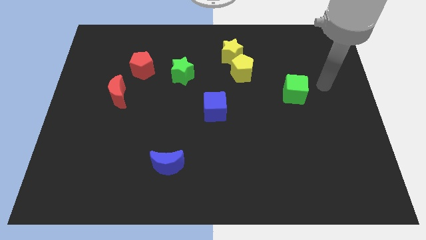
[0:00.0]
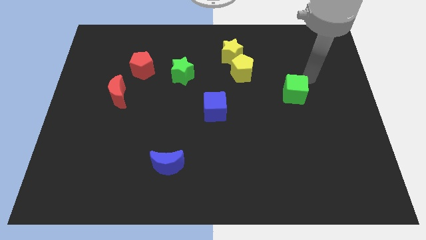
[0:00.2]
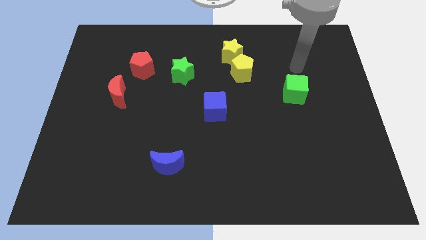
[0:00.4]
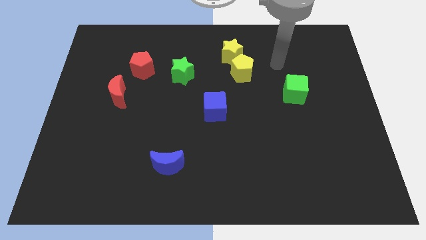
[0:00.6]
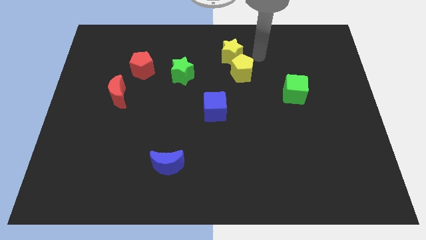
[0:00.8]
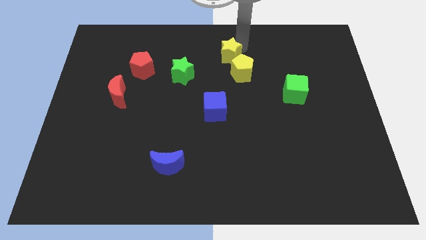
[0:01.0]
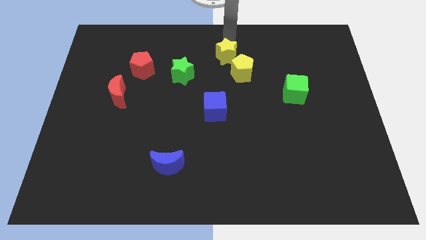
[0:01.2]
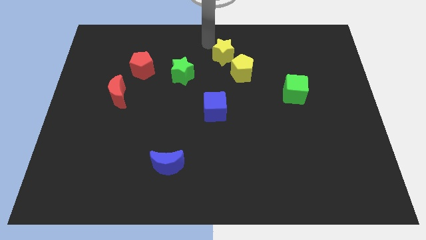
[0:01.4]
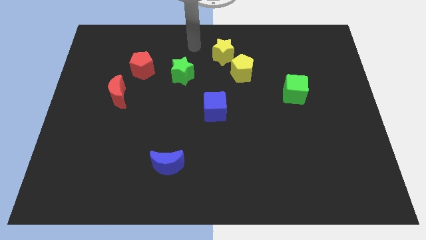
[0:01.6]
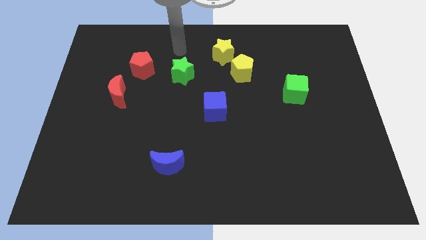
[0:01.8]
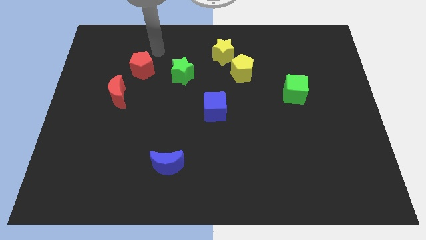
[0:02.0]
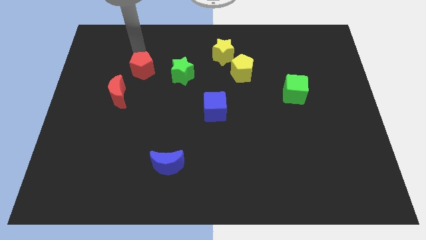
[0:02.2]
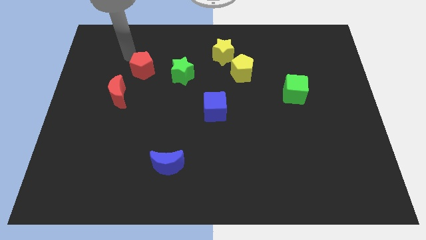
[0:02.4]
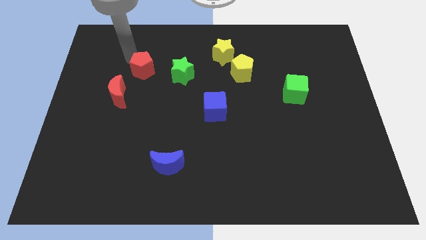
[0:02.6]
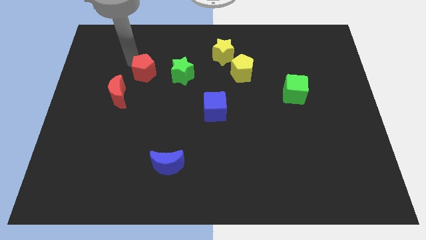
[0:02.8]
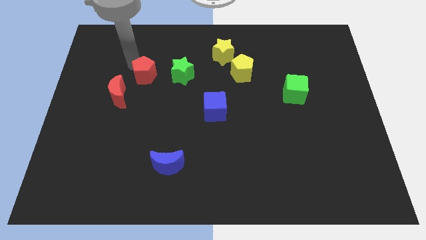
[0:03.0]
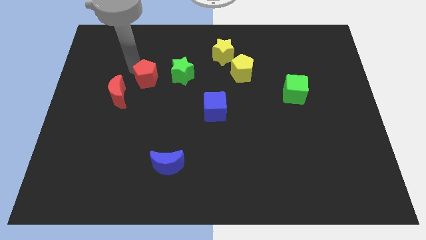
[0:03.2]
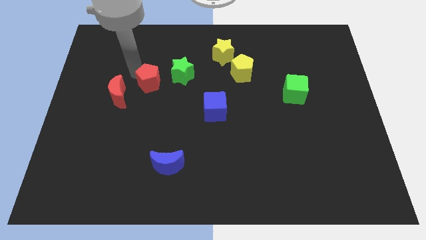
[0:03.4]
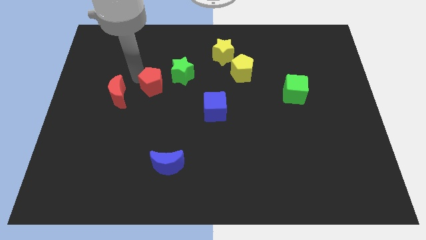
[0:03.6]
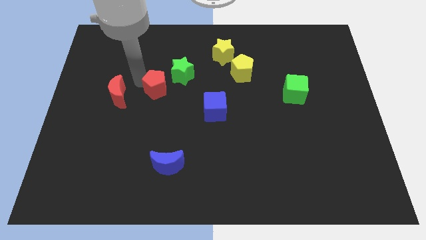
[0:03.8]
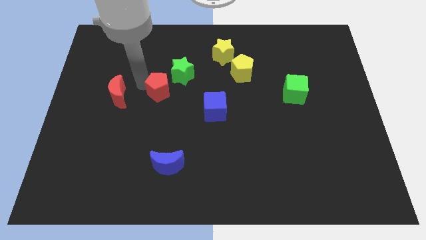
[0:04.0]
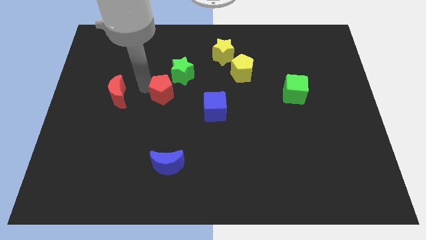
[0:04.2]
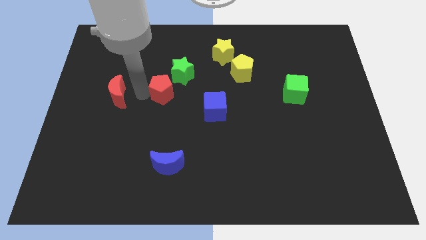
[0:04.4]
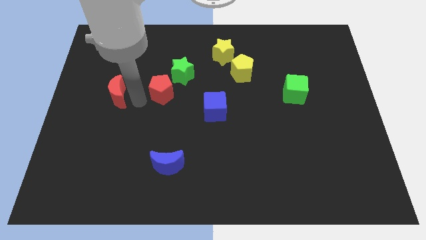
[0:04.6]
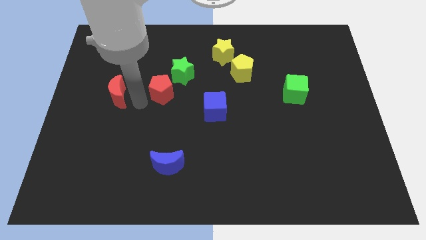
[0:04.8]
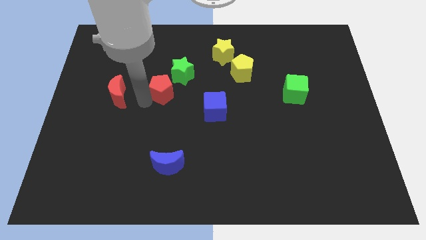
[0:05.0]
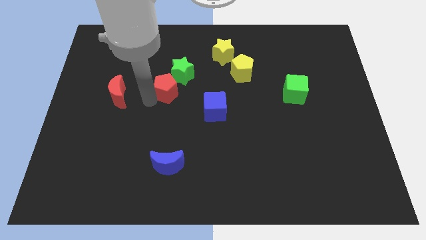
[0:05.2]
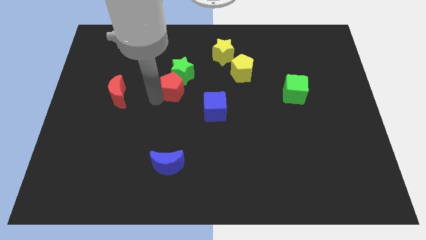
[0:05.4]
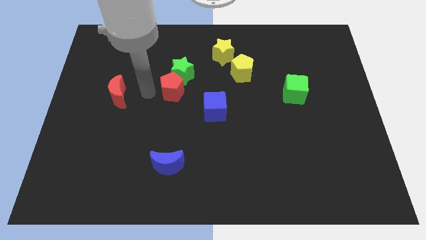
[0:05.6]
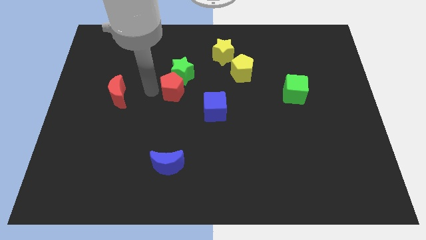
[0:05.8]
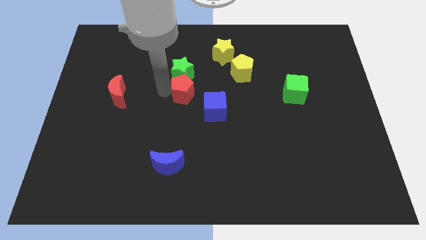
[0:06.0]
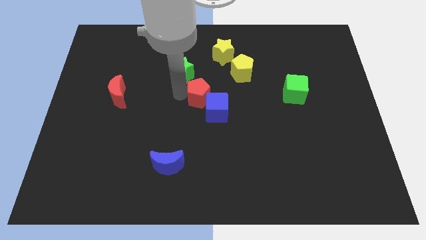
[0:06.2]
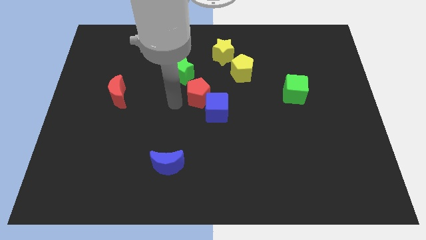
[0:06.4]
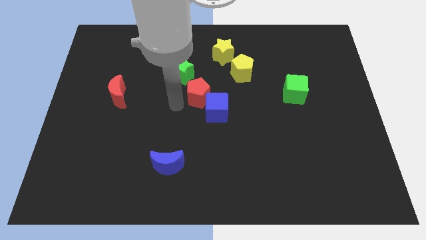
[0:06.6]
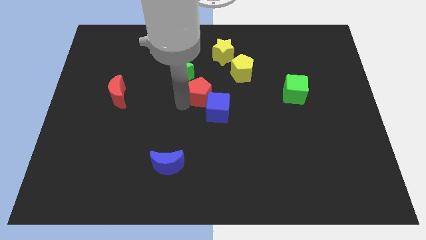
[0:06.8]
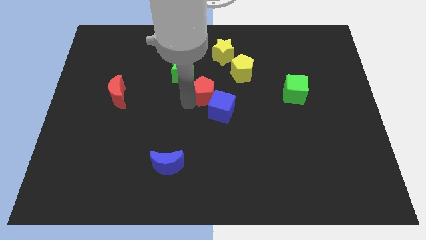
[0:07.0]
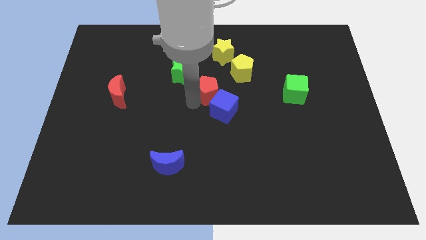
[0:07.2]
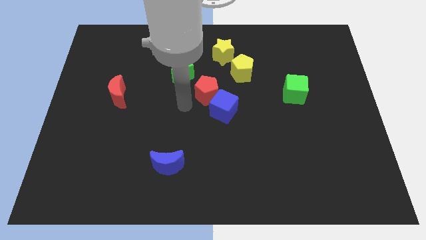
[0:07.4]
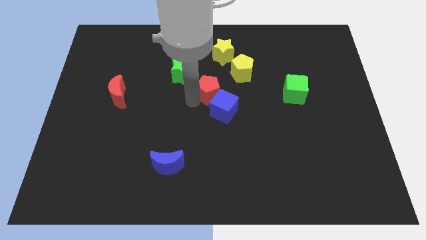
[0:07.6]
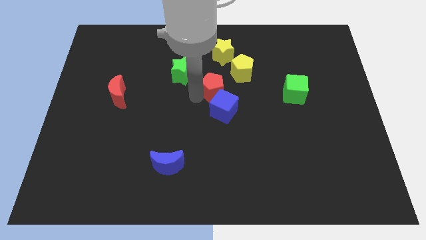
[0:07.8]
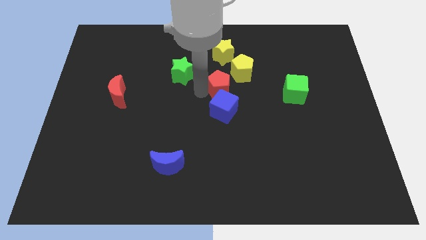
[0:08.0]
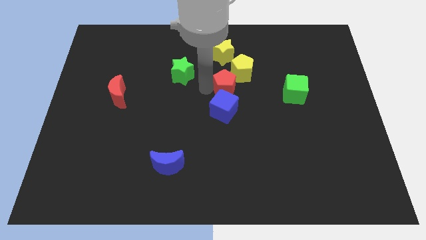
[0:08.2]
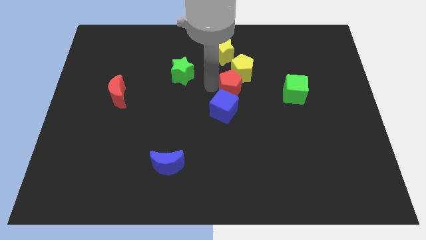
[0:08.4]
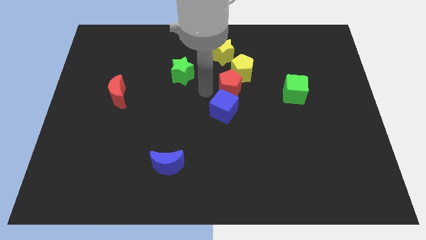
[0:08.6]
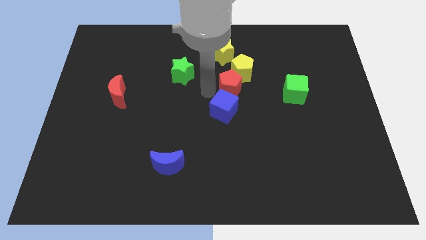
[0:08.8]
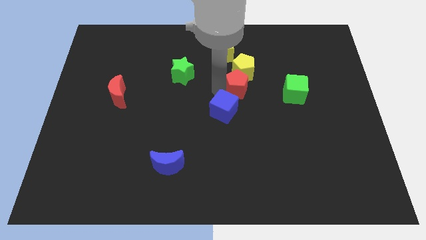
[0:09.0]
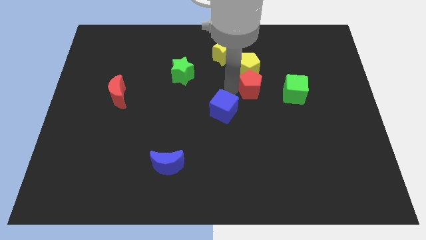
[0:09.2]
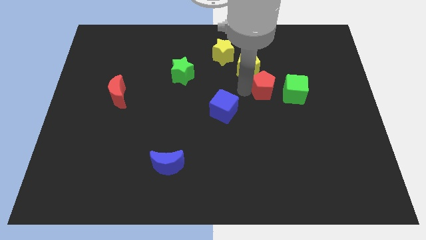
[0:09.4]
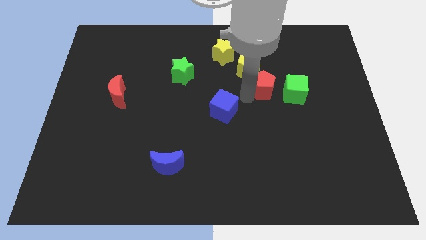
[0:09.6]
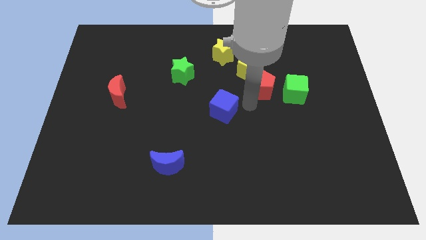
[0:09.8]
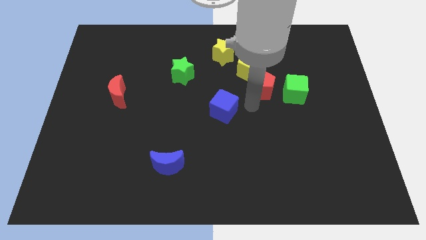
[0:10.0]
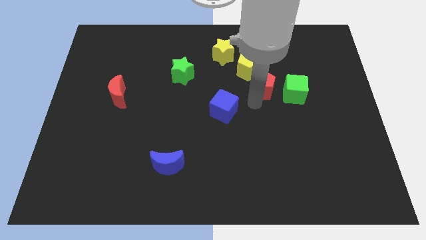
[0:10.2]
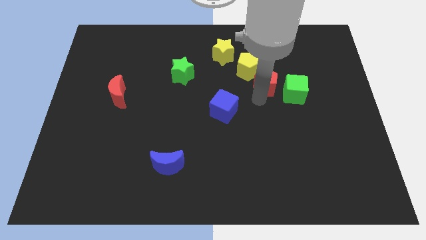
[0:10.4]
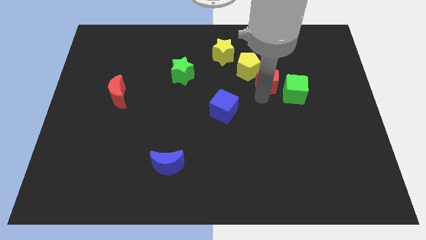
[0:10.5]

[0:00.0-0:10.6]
put the red pentagon to the right side of the yellow pentagon
